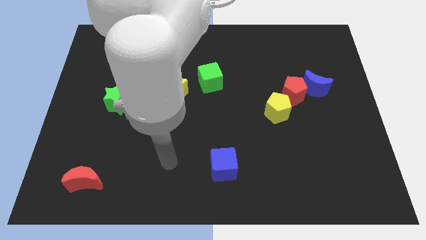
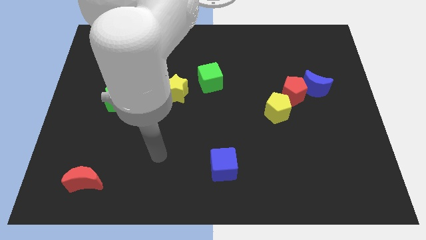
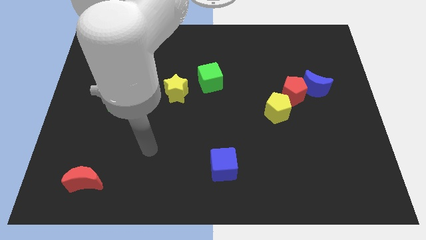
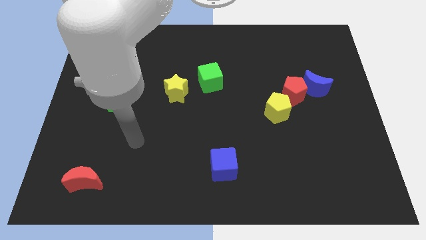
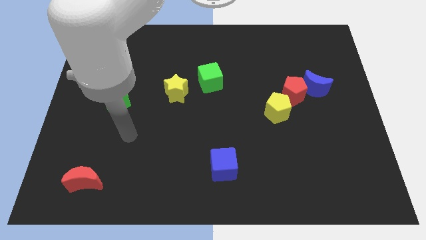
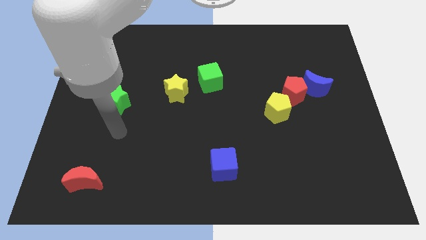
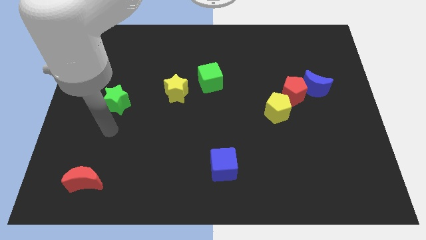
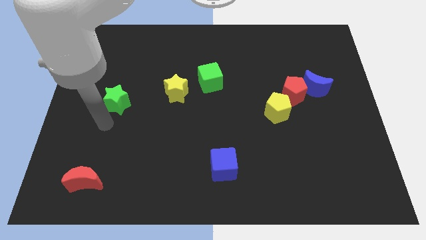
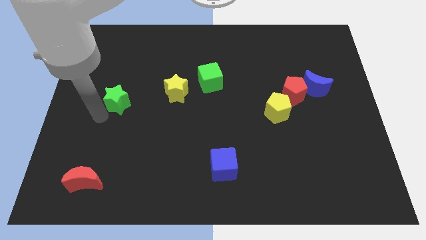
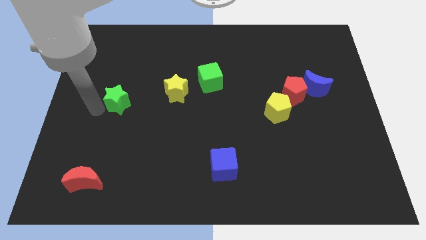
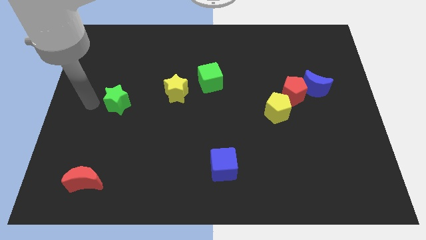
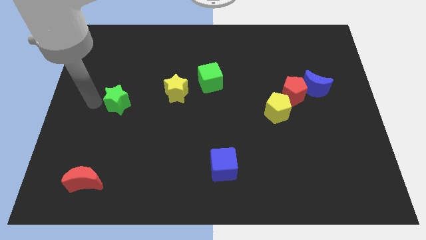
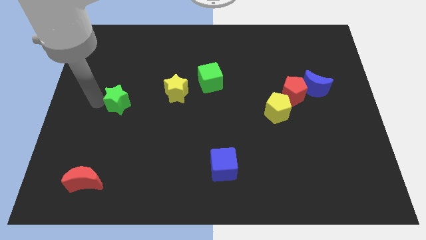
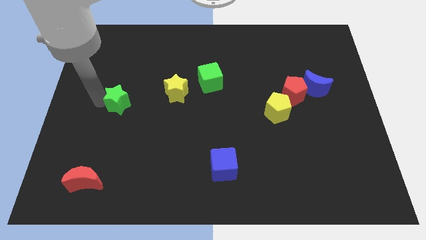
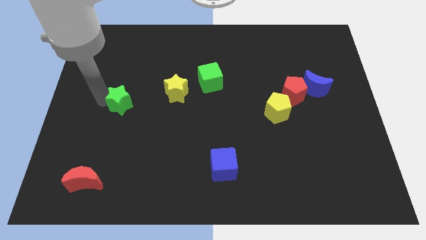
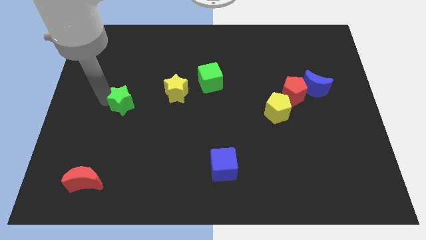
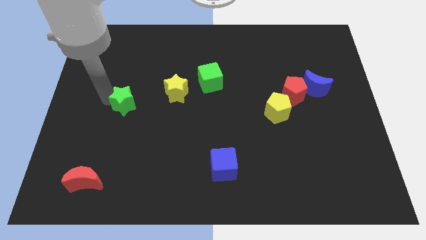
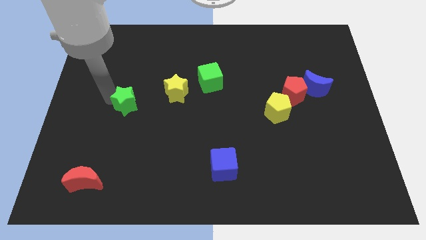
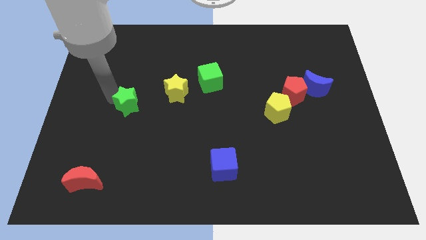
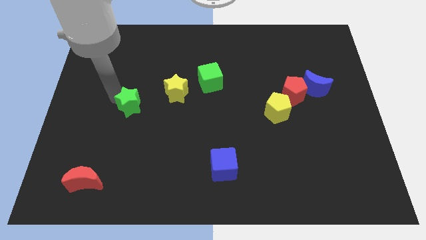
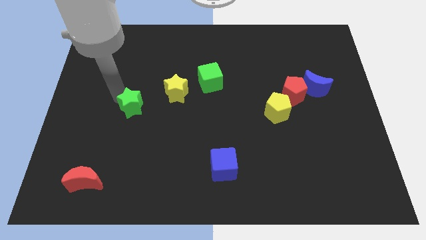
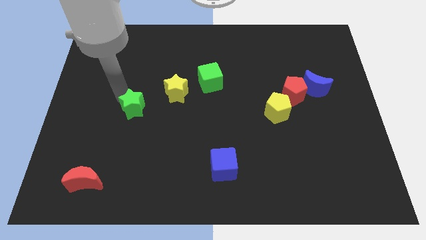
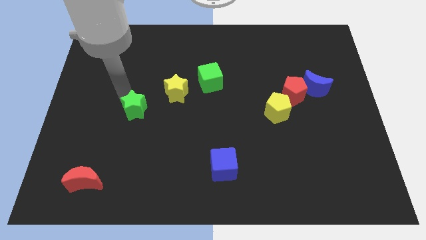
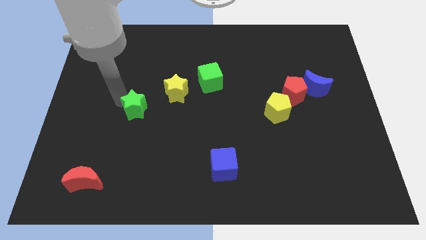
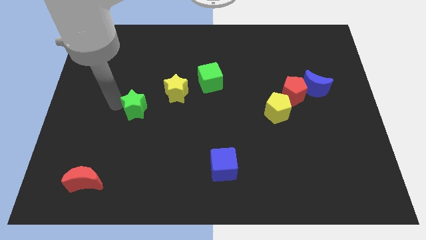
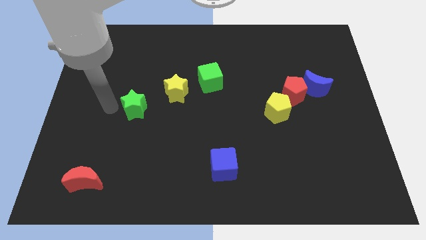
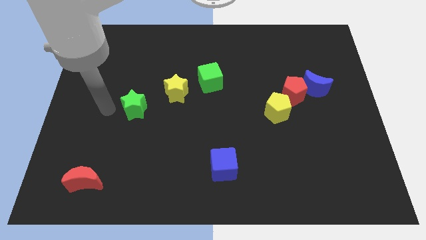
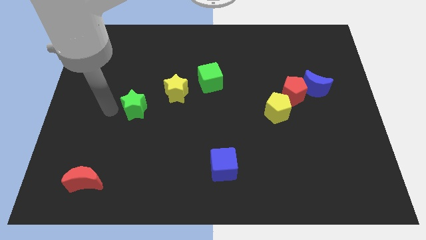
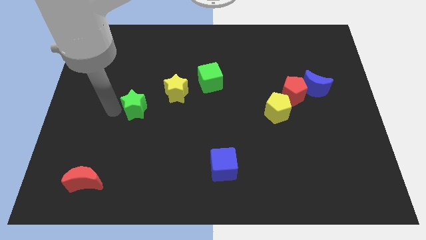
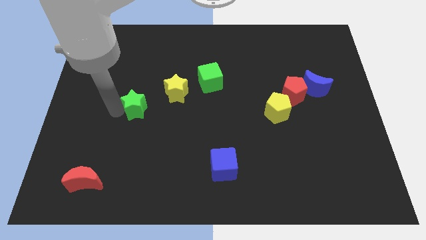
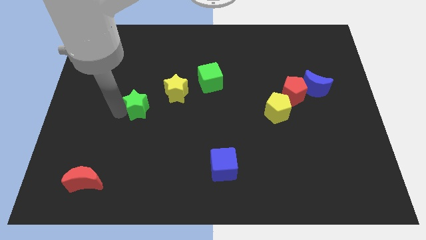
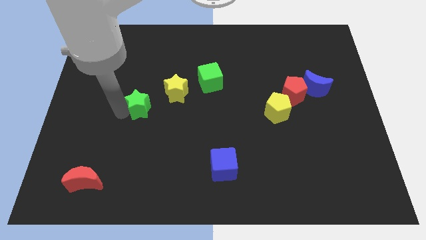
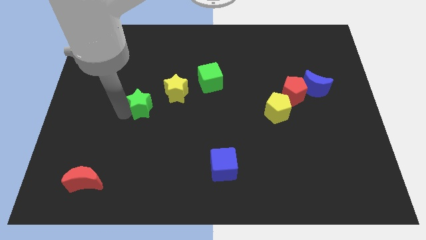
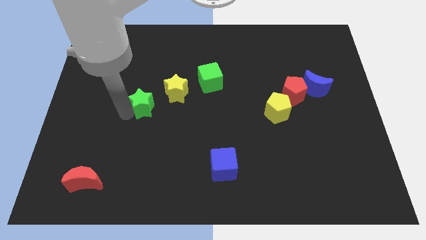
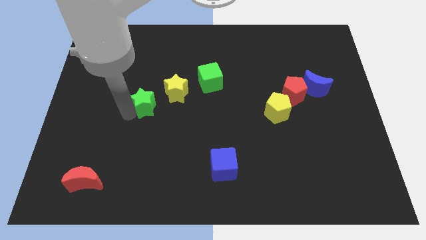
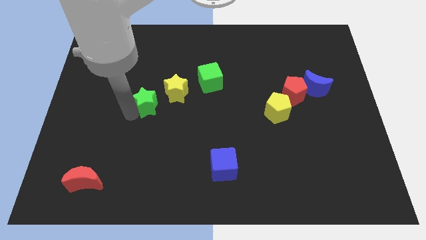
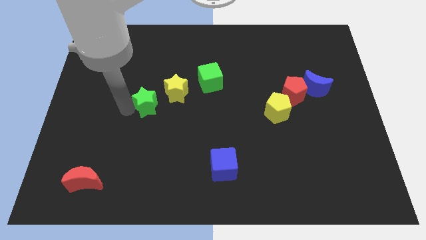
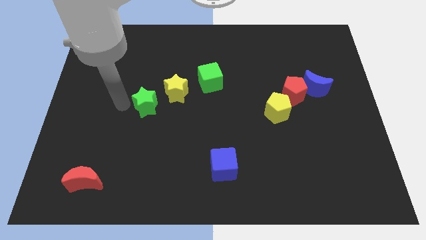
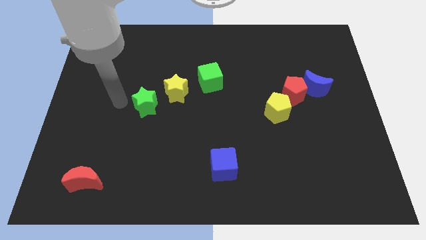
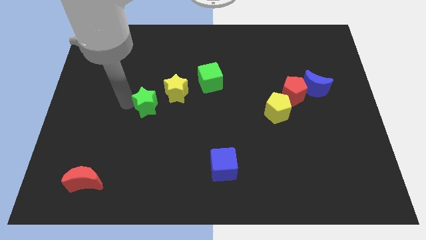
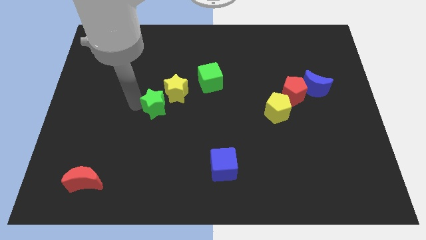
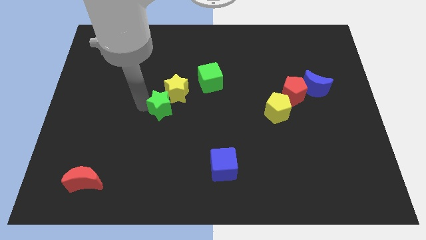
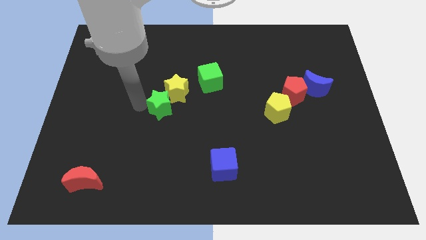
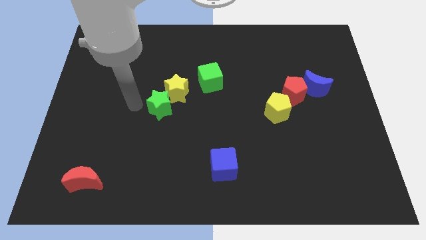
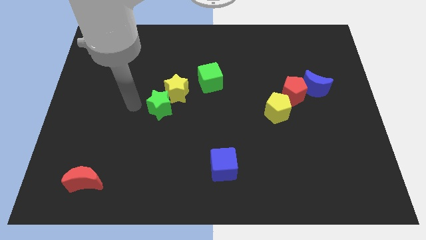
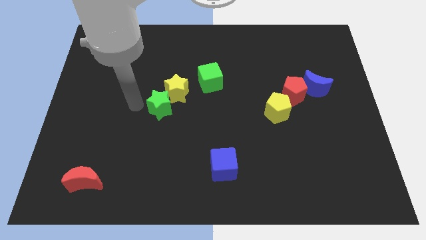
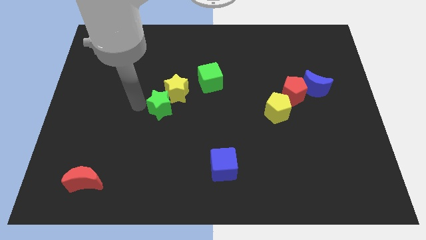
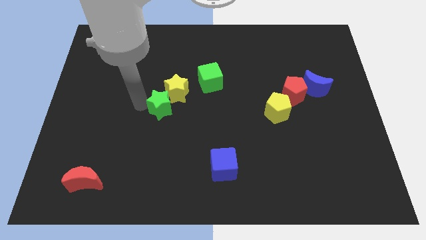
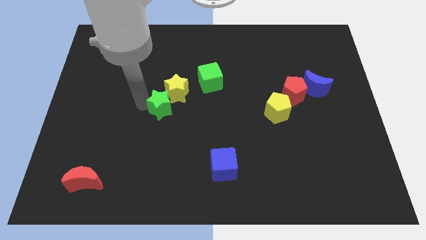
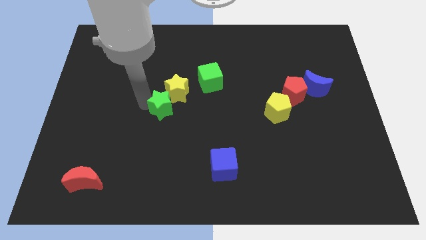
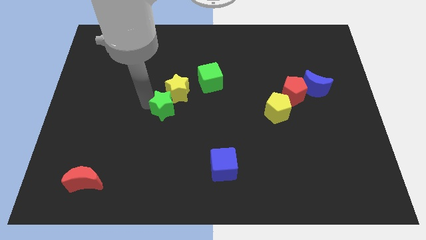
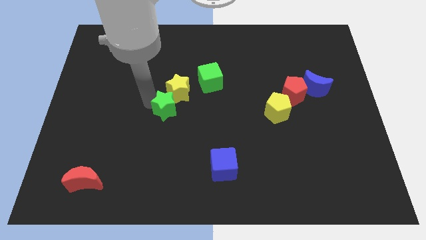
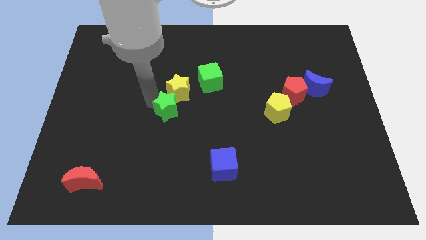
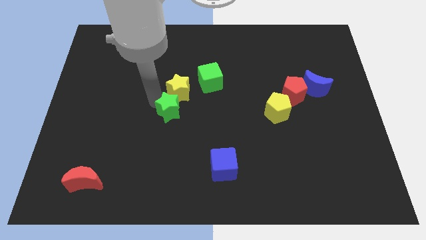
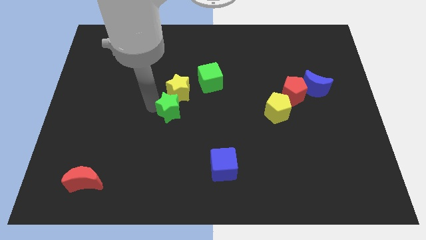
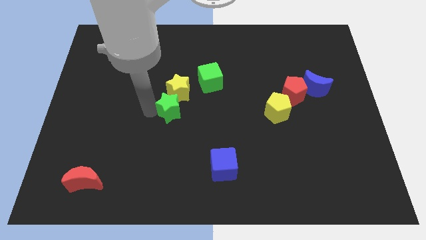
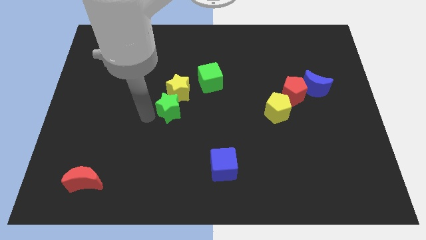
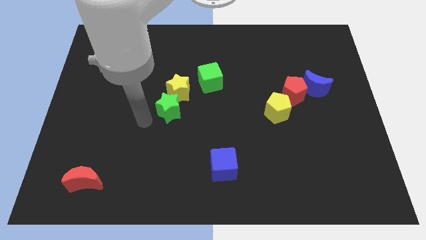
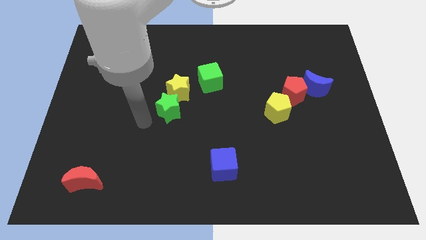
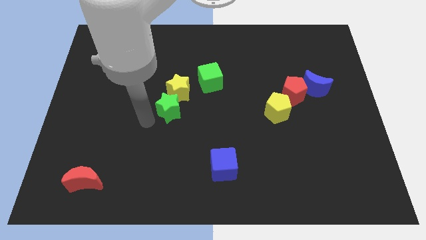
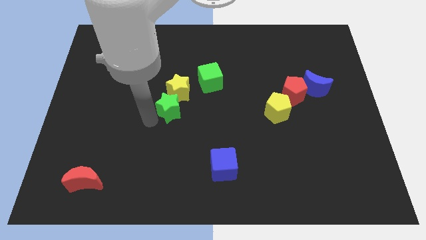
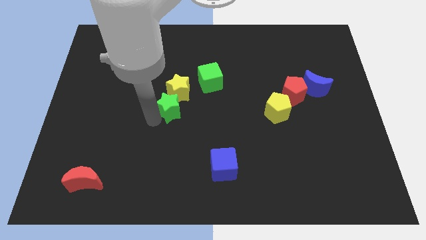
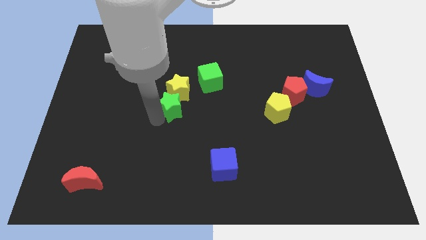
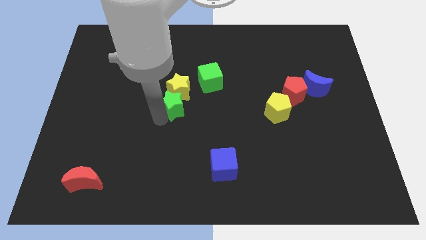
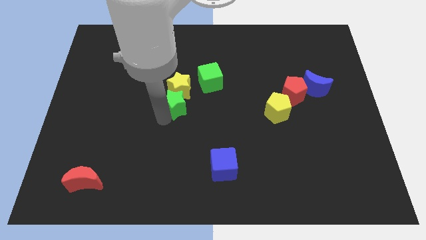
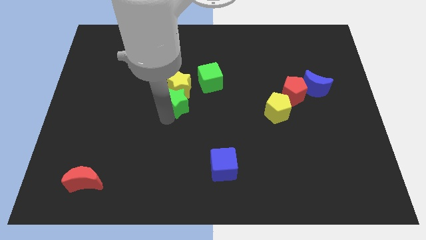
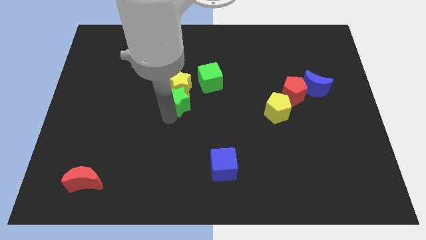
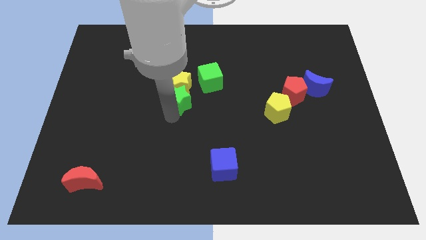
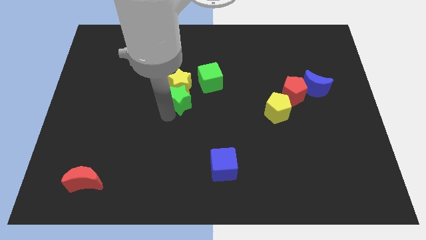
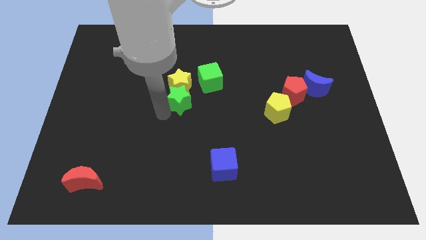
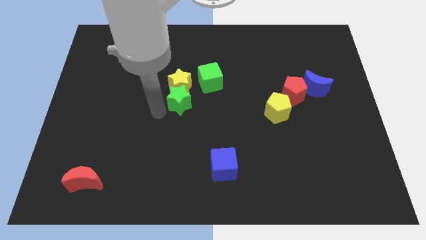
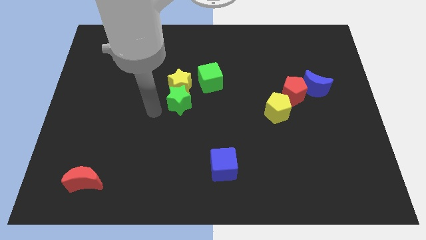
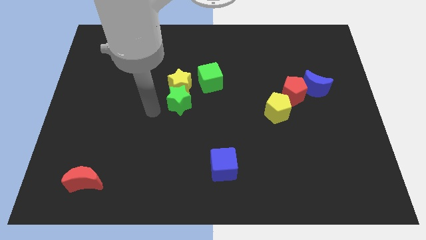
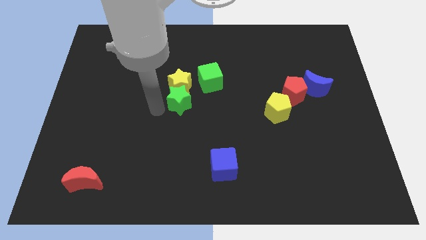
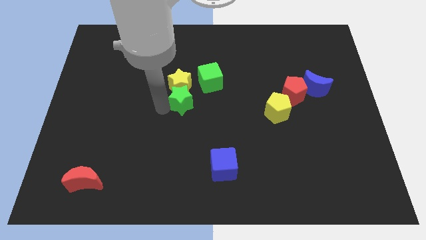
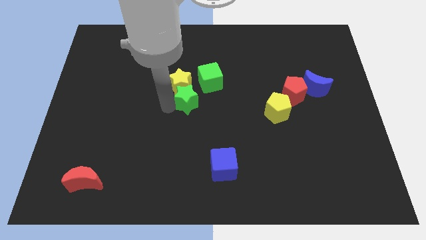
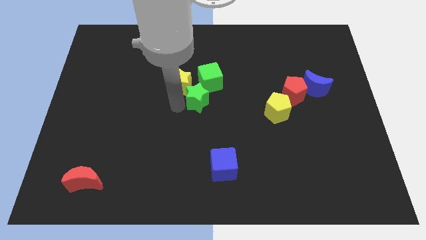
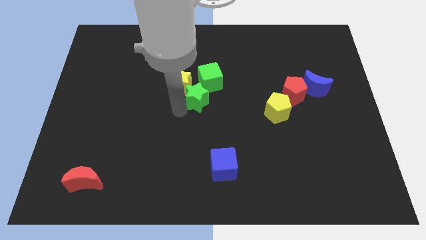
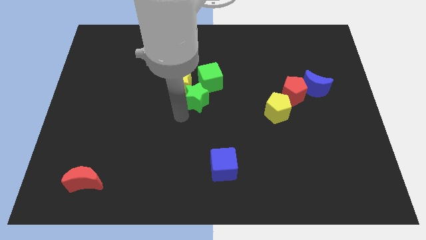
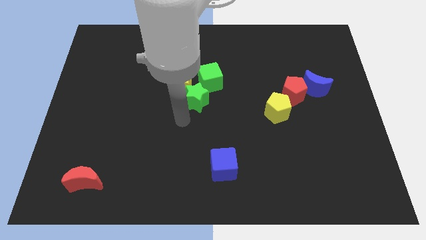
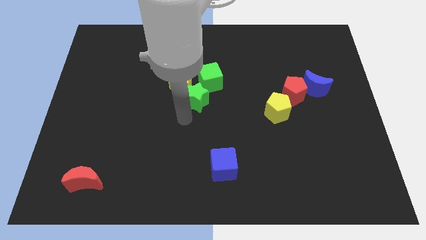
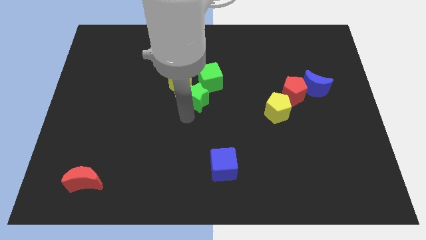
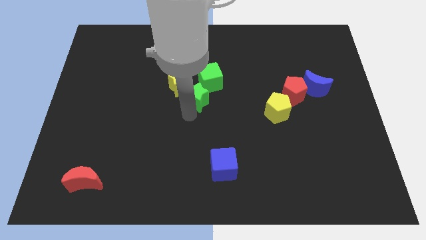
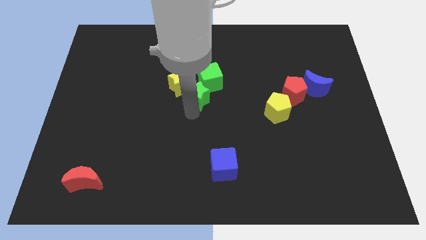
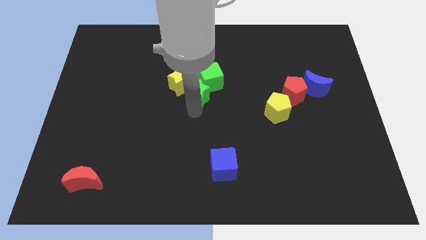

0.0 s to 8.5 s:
slide the green star to the green cube
